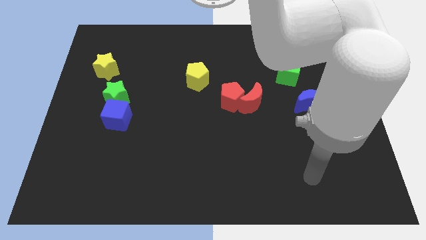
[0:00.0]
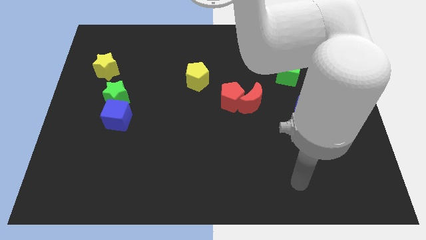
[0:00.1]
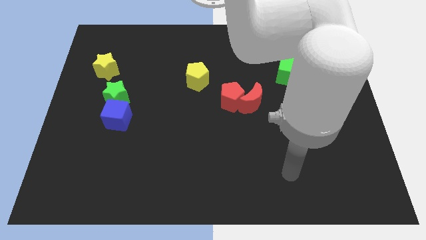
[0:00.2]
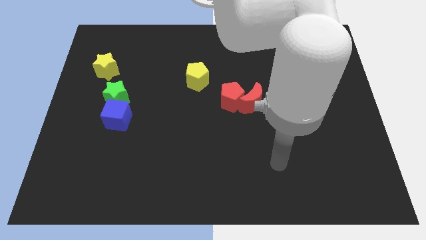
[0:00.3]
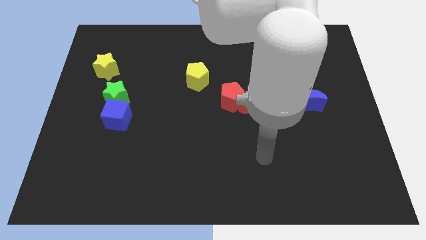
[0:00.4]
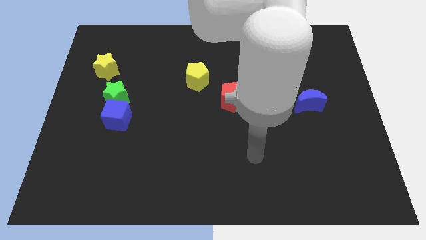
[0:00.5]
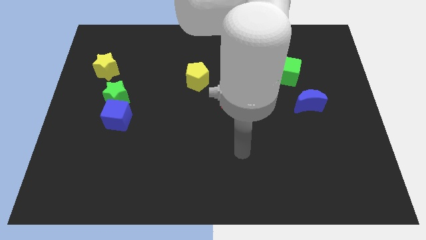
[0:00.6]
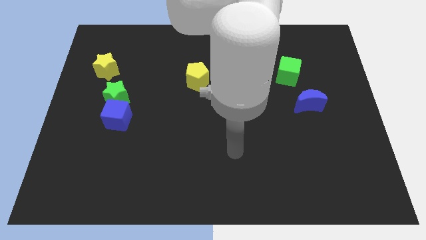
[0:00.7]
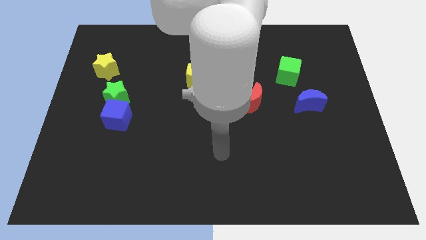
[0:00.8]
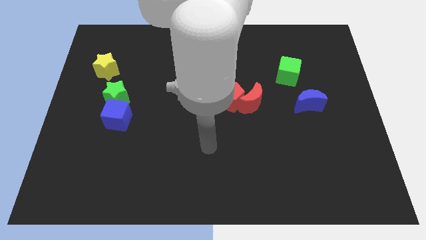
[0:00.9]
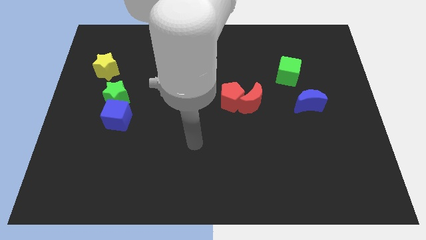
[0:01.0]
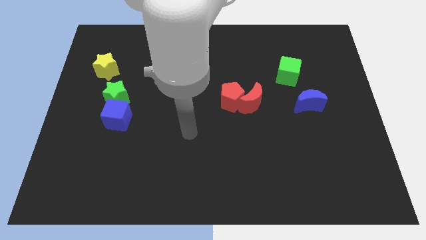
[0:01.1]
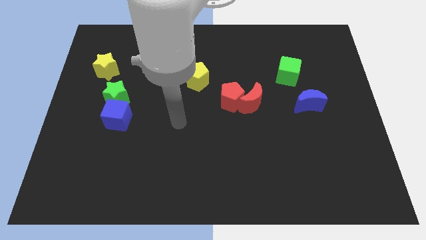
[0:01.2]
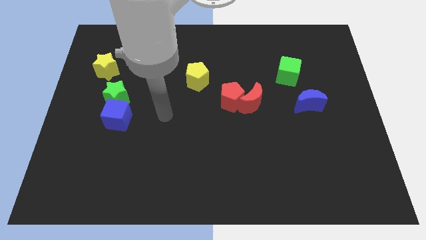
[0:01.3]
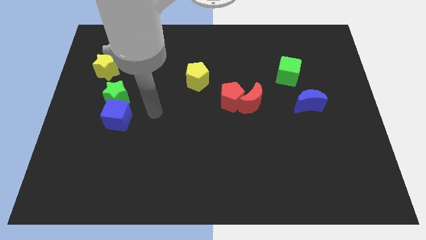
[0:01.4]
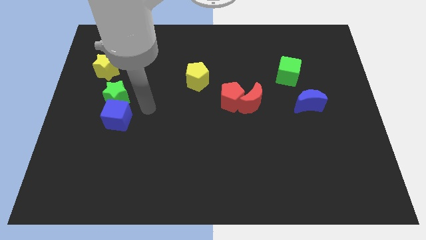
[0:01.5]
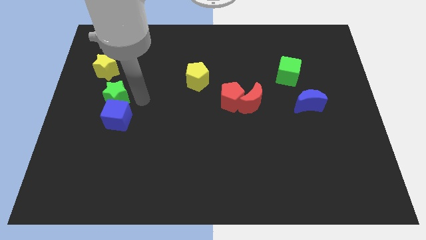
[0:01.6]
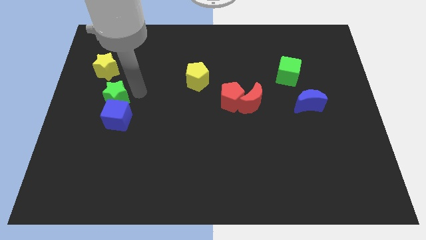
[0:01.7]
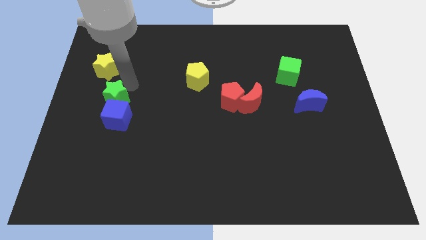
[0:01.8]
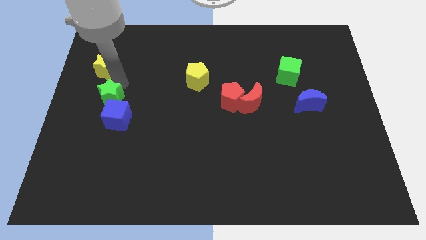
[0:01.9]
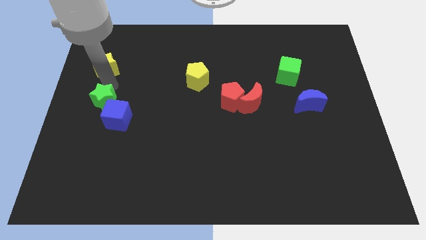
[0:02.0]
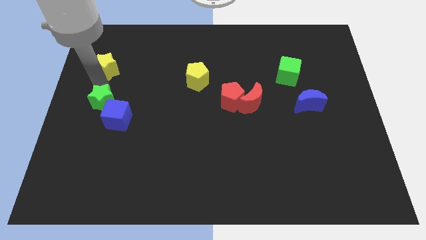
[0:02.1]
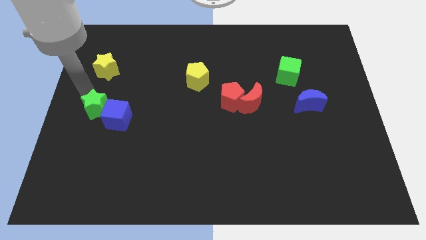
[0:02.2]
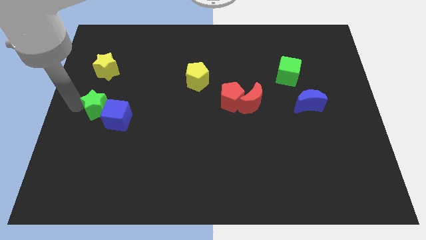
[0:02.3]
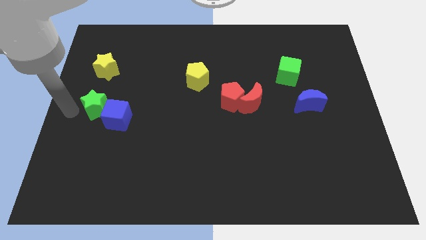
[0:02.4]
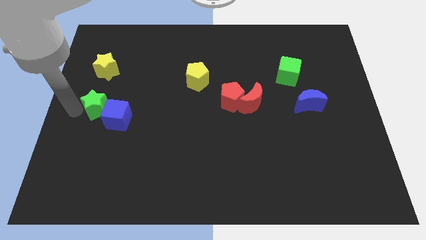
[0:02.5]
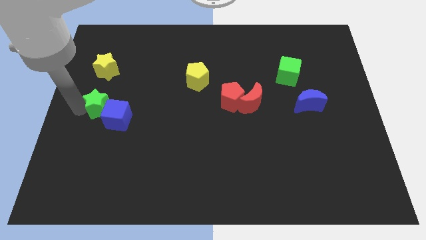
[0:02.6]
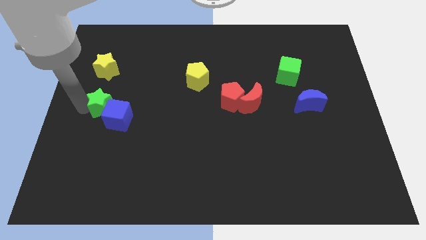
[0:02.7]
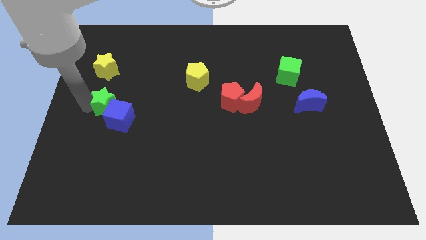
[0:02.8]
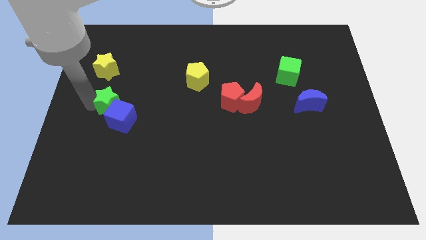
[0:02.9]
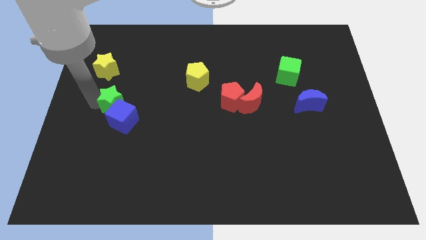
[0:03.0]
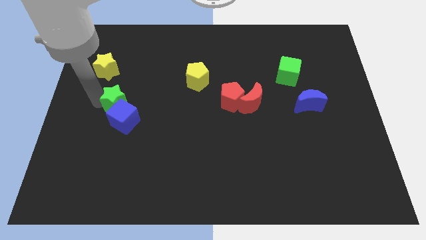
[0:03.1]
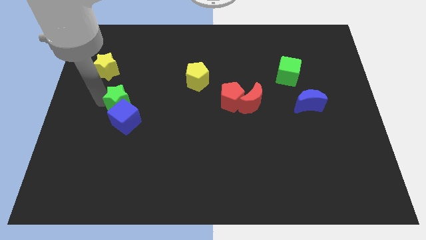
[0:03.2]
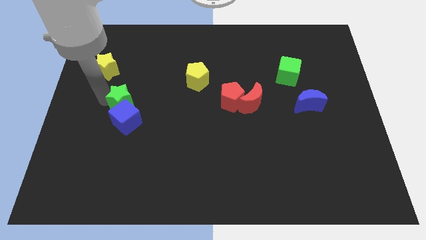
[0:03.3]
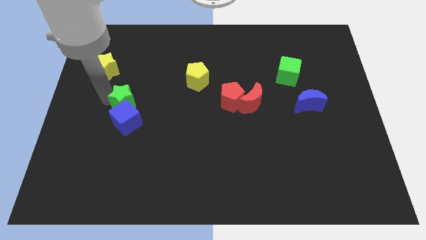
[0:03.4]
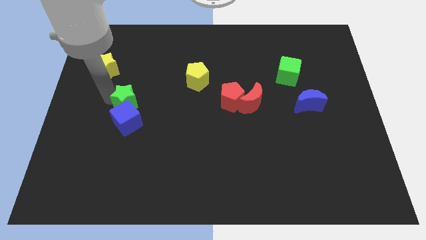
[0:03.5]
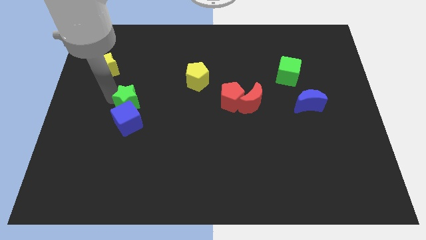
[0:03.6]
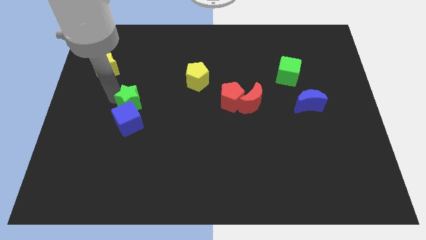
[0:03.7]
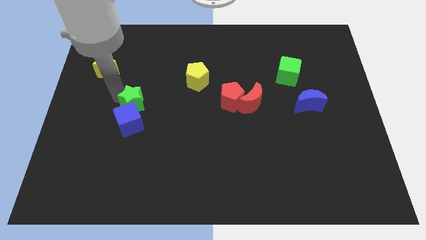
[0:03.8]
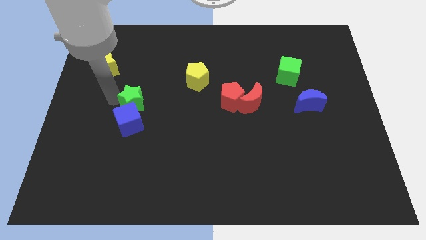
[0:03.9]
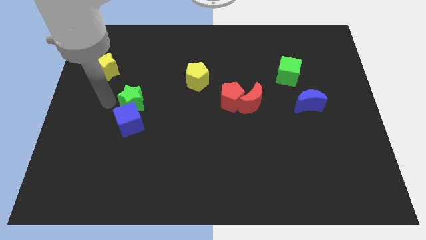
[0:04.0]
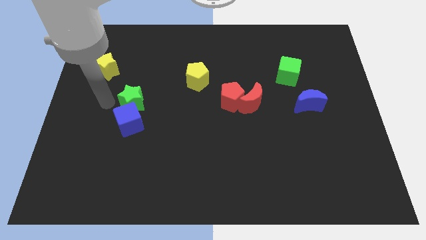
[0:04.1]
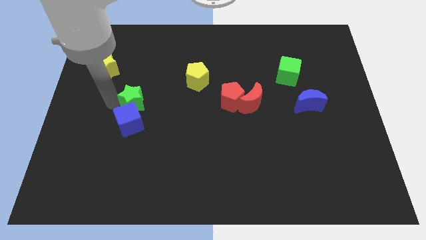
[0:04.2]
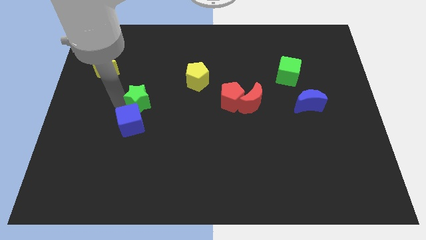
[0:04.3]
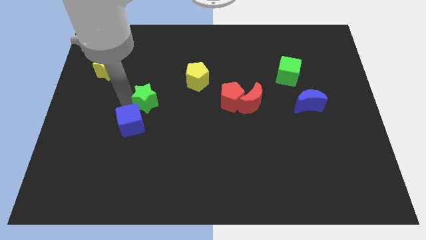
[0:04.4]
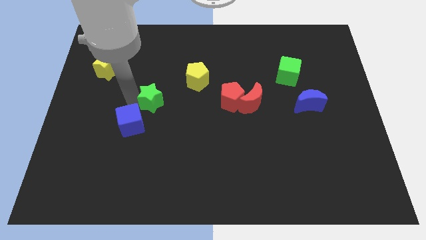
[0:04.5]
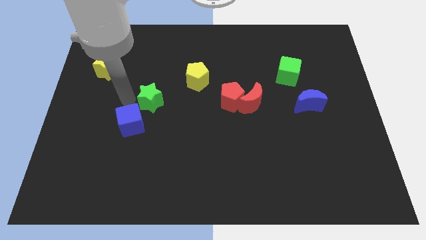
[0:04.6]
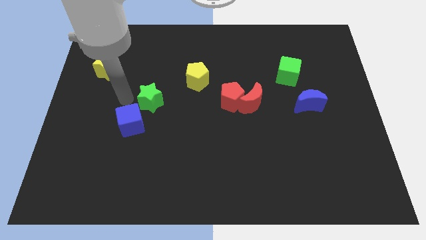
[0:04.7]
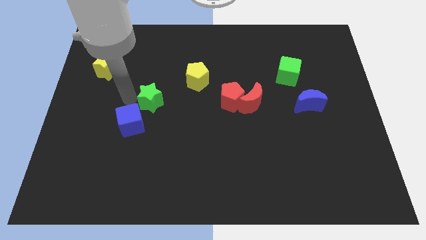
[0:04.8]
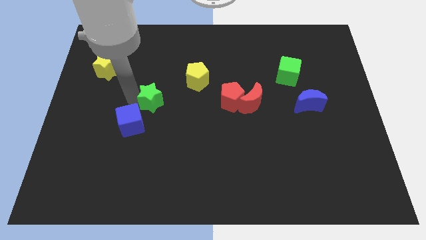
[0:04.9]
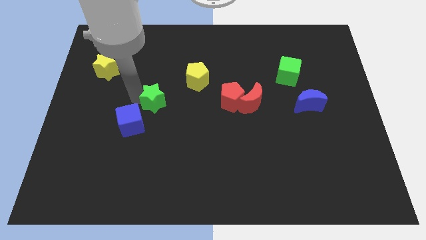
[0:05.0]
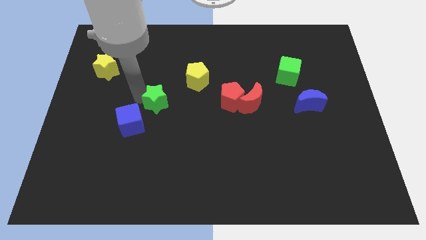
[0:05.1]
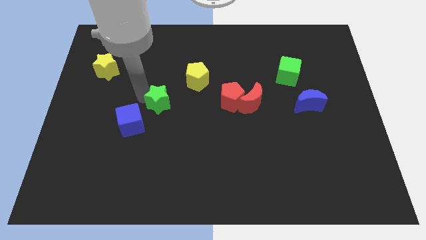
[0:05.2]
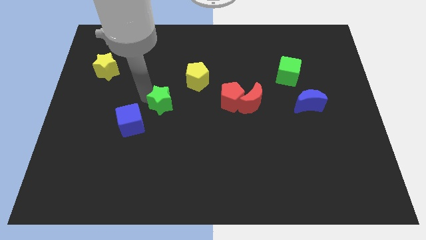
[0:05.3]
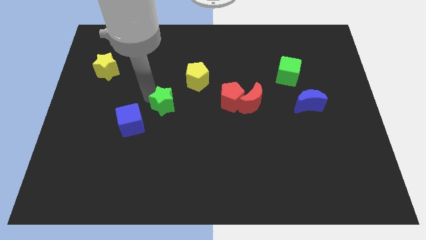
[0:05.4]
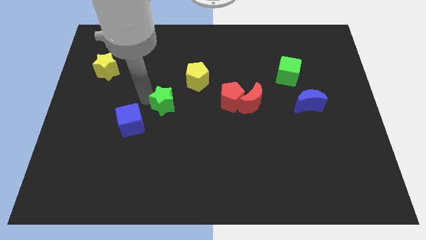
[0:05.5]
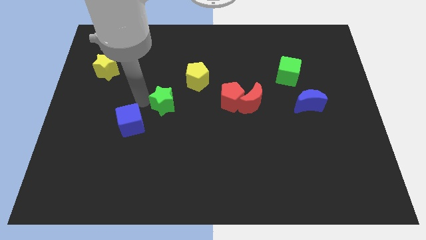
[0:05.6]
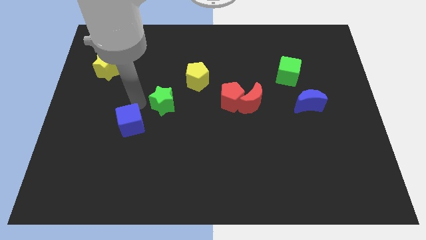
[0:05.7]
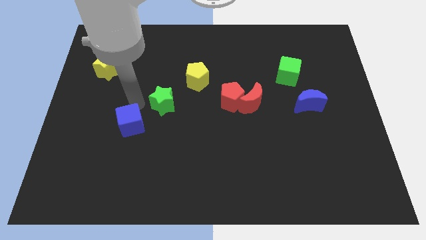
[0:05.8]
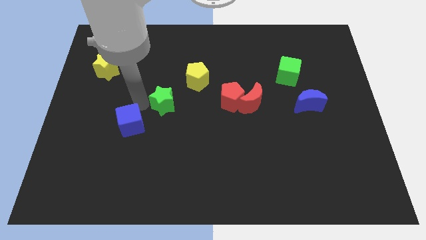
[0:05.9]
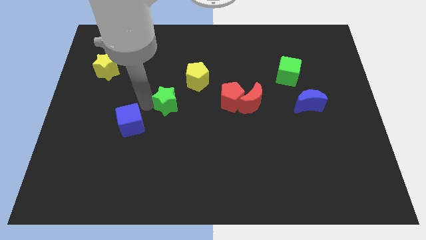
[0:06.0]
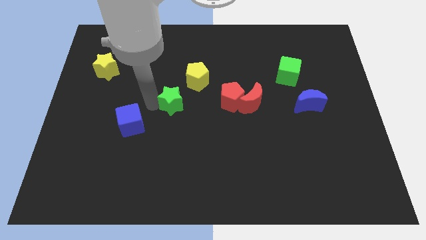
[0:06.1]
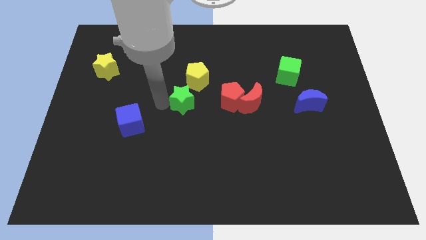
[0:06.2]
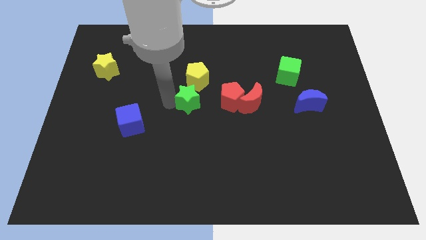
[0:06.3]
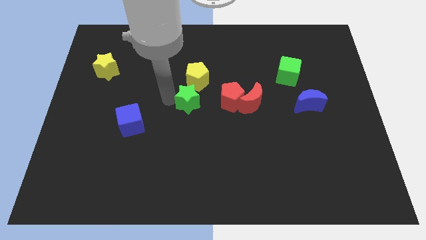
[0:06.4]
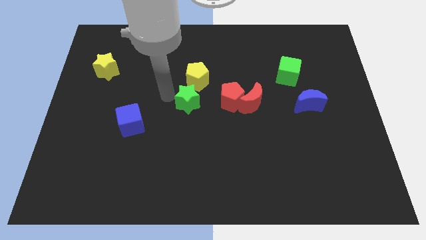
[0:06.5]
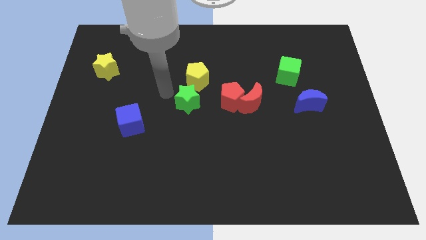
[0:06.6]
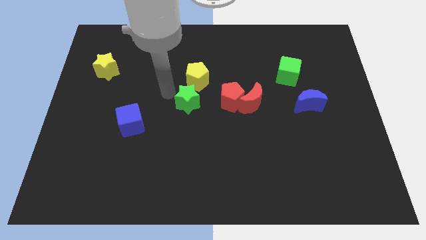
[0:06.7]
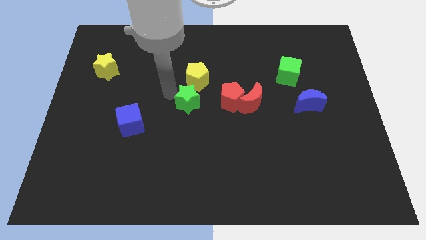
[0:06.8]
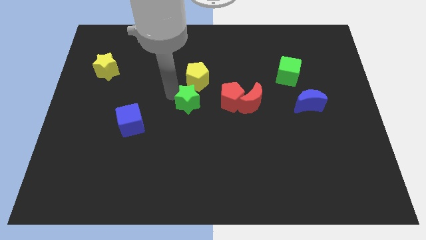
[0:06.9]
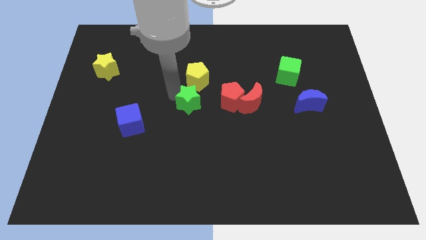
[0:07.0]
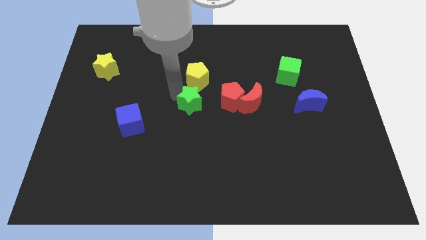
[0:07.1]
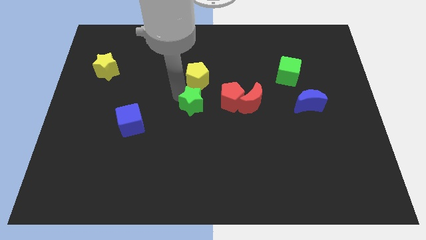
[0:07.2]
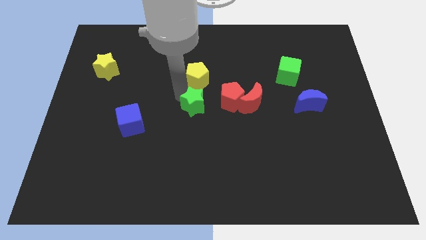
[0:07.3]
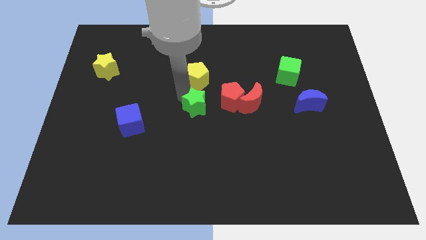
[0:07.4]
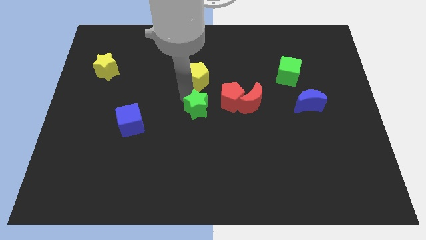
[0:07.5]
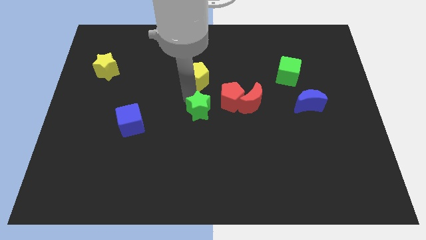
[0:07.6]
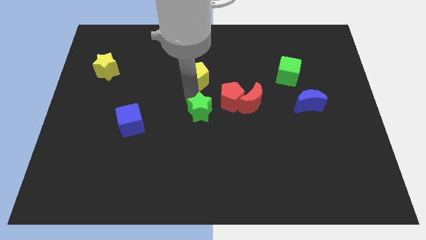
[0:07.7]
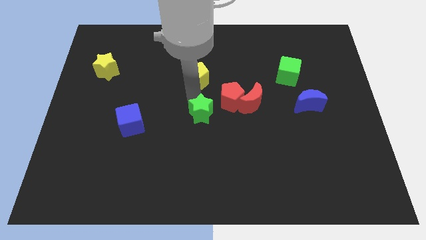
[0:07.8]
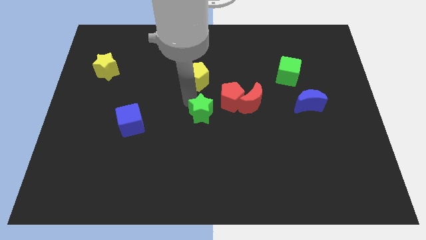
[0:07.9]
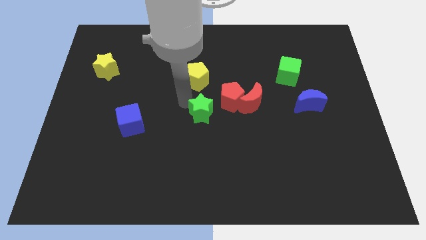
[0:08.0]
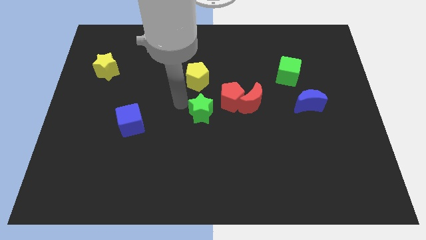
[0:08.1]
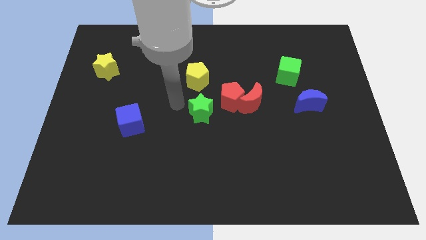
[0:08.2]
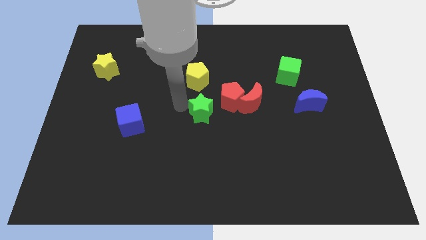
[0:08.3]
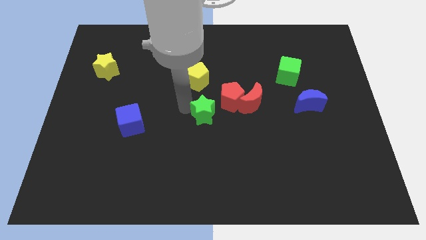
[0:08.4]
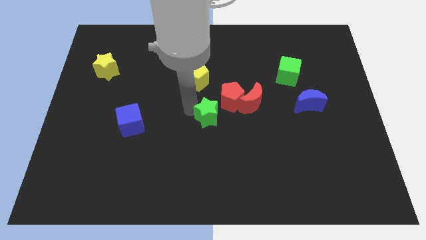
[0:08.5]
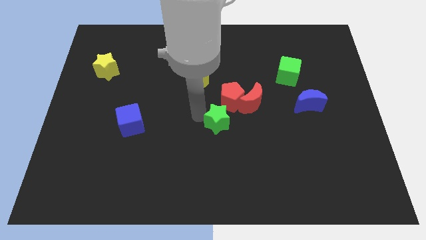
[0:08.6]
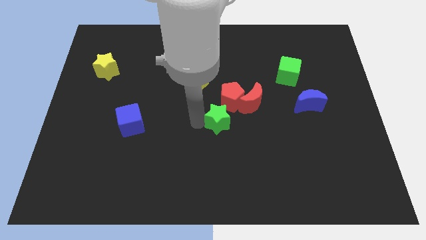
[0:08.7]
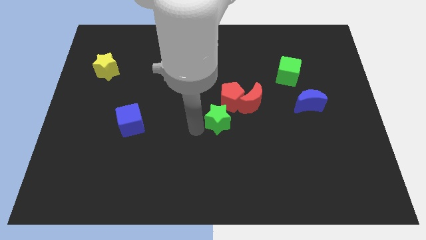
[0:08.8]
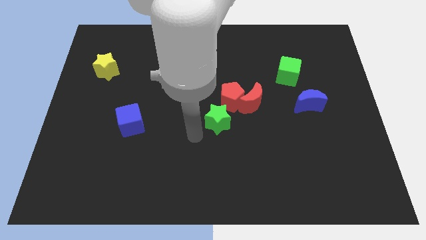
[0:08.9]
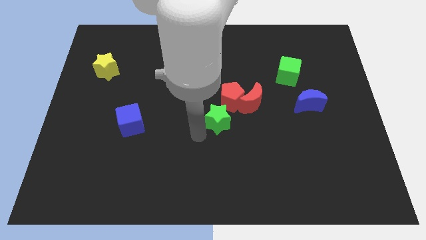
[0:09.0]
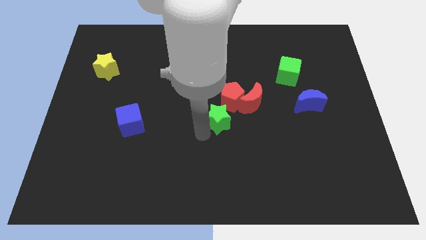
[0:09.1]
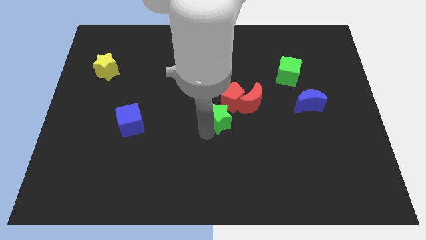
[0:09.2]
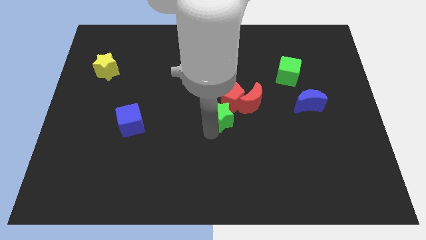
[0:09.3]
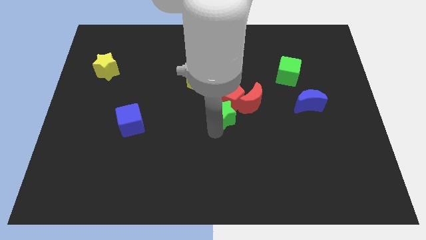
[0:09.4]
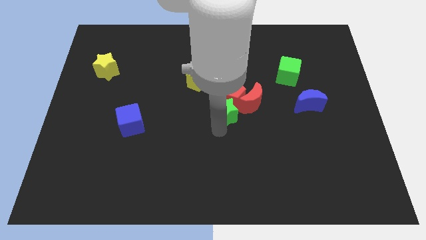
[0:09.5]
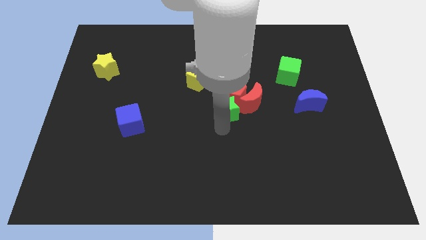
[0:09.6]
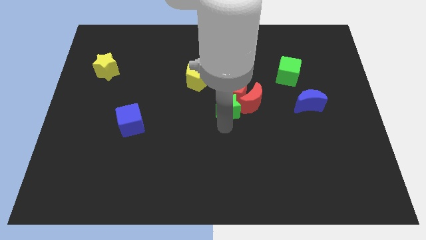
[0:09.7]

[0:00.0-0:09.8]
move the green star next to the red moon
